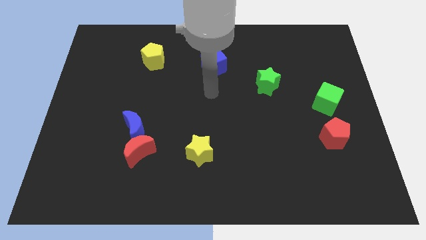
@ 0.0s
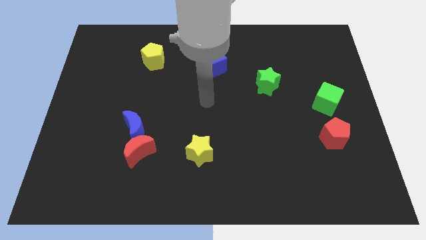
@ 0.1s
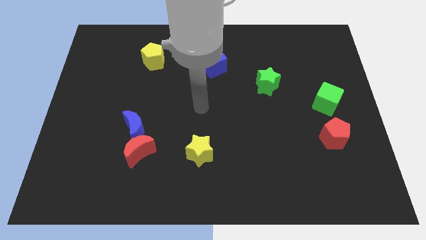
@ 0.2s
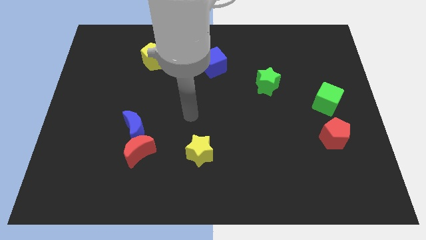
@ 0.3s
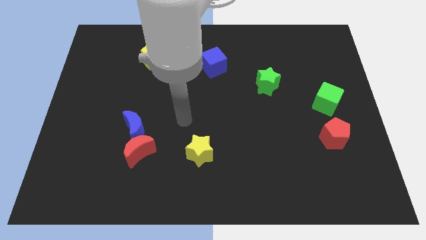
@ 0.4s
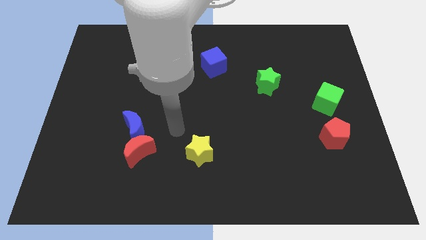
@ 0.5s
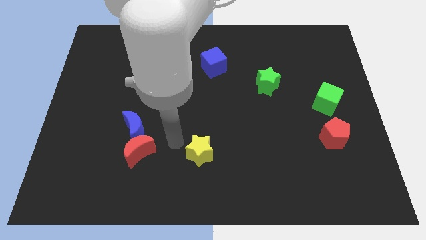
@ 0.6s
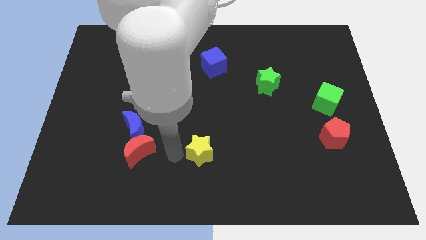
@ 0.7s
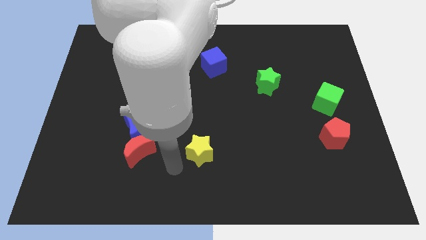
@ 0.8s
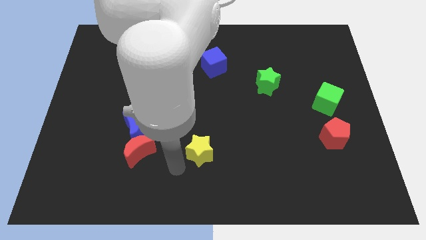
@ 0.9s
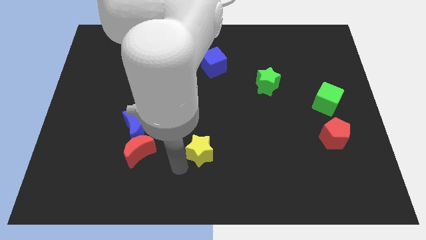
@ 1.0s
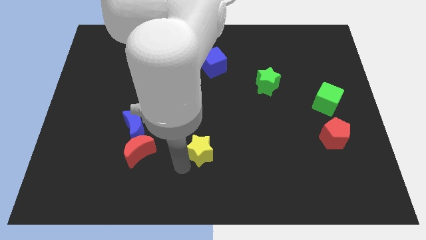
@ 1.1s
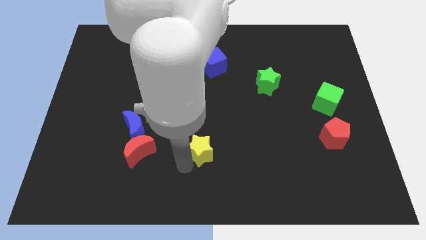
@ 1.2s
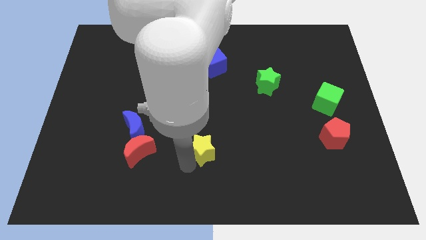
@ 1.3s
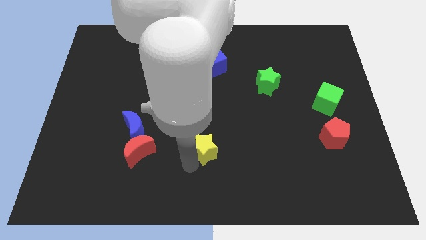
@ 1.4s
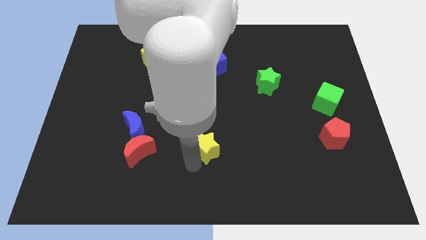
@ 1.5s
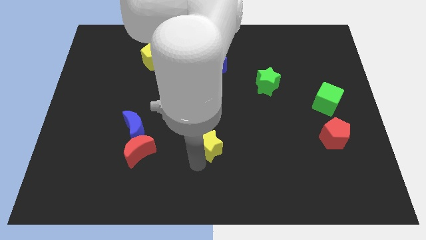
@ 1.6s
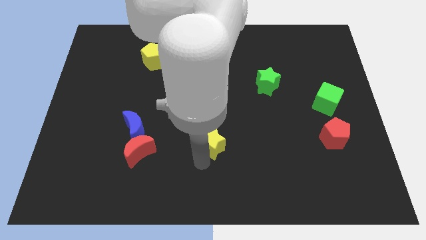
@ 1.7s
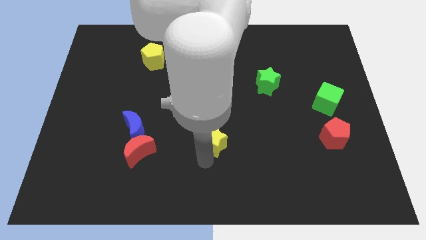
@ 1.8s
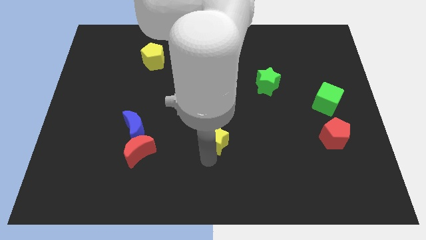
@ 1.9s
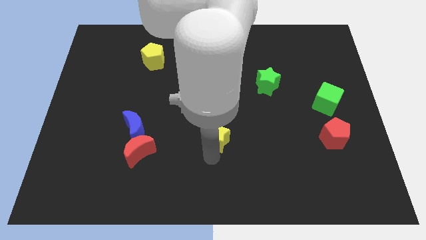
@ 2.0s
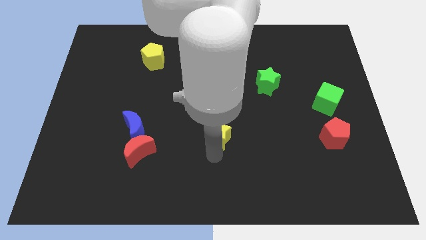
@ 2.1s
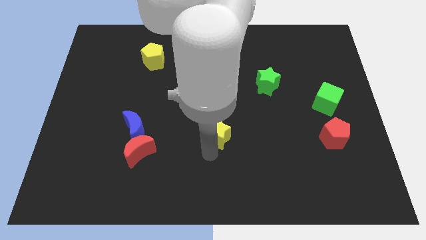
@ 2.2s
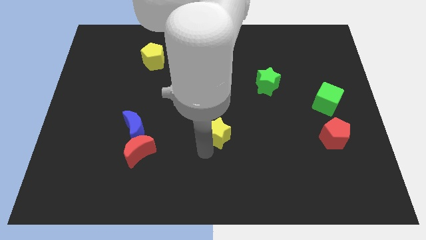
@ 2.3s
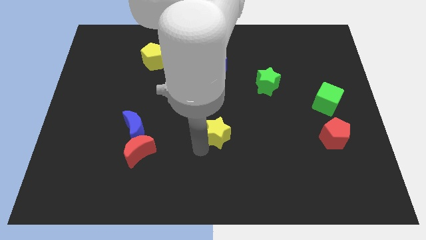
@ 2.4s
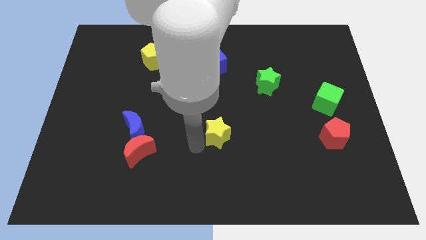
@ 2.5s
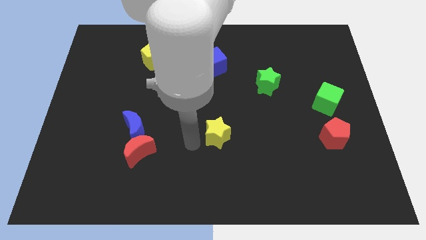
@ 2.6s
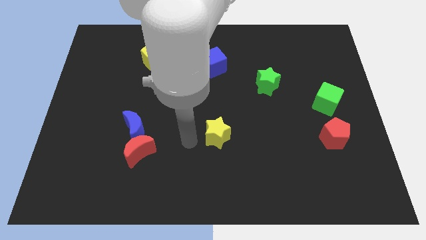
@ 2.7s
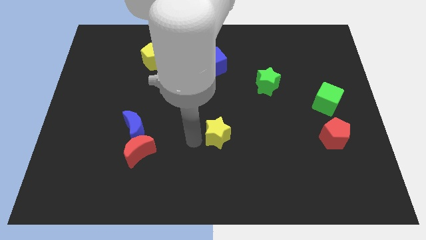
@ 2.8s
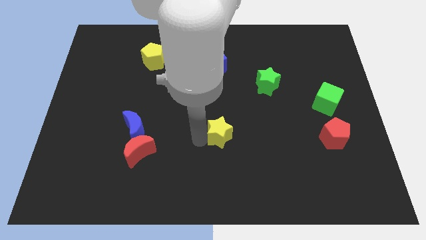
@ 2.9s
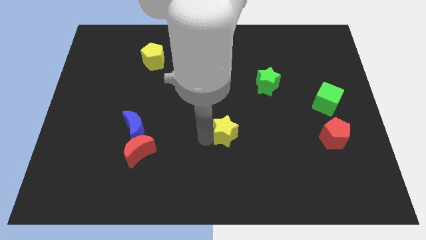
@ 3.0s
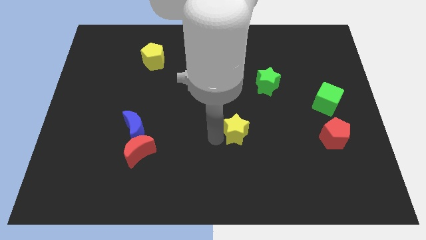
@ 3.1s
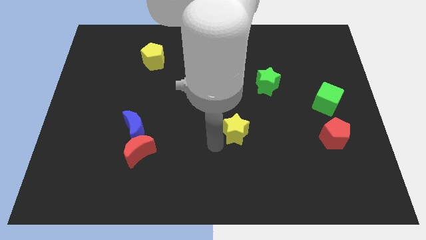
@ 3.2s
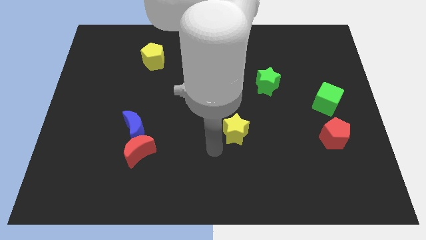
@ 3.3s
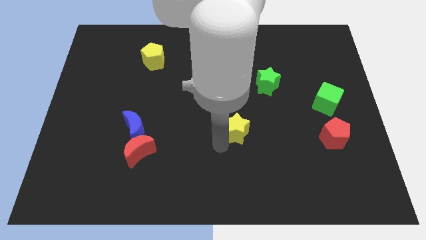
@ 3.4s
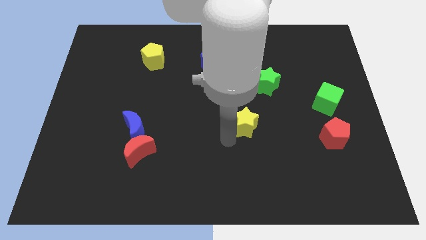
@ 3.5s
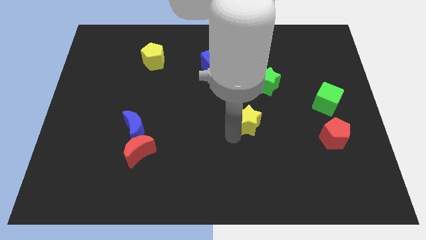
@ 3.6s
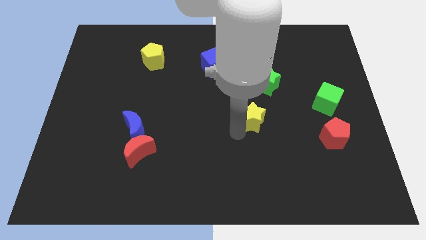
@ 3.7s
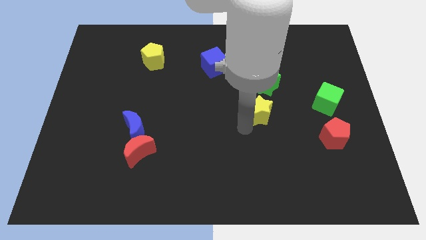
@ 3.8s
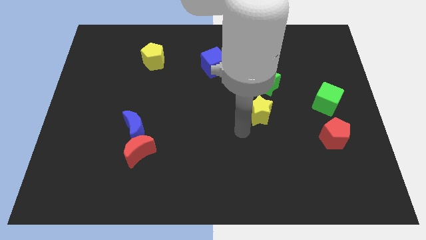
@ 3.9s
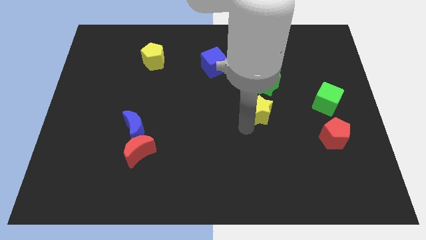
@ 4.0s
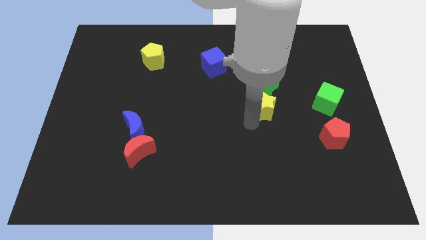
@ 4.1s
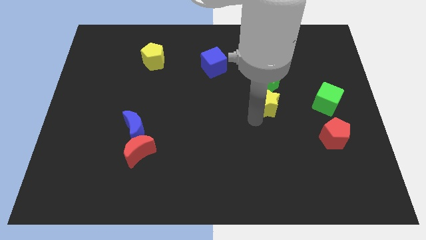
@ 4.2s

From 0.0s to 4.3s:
move the yellow star upwards and right

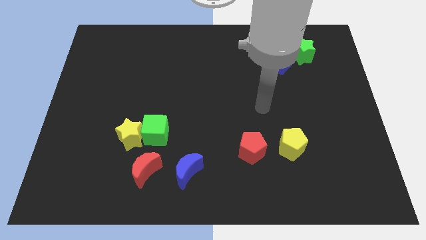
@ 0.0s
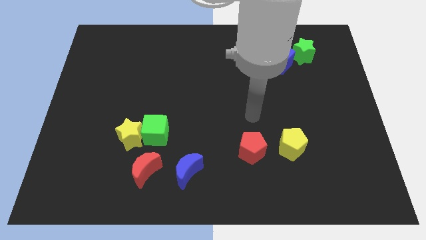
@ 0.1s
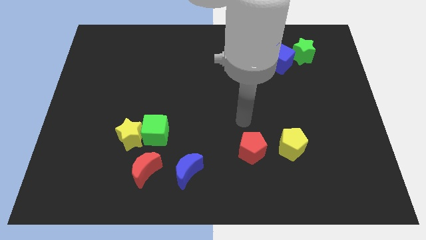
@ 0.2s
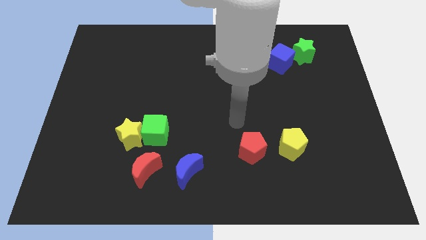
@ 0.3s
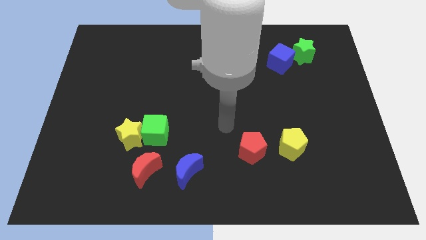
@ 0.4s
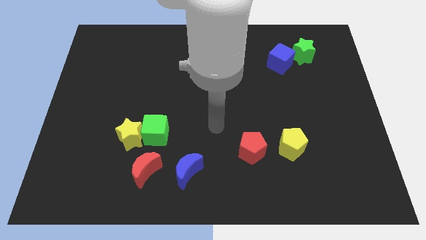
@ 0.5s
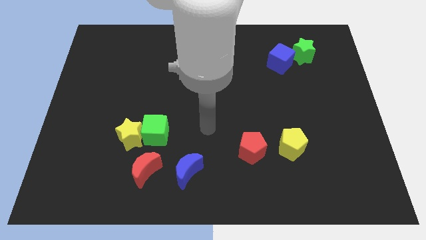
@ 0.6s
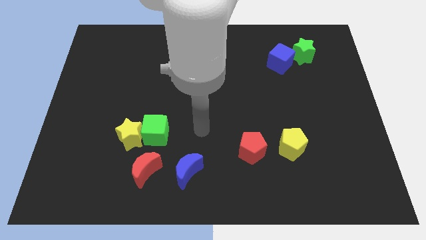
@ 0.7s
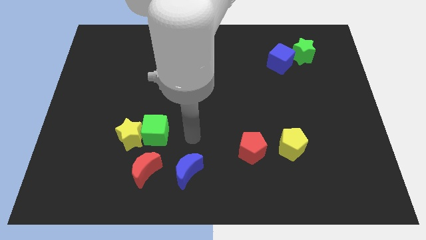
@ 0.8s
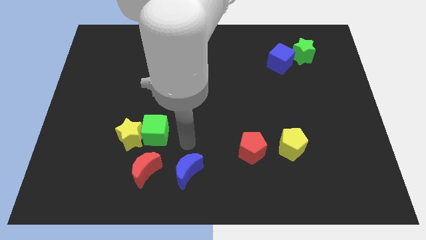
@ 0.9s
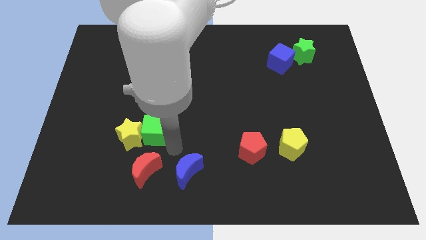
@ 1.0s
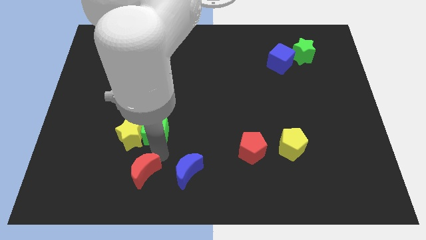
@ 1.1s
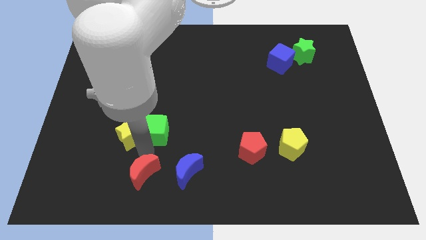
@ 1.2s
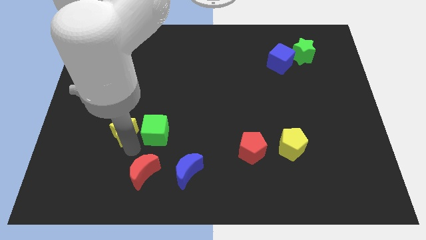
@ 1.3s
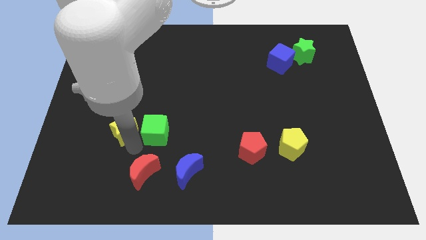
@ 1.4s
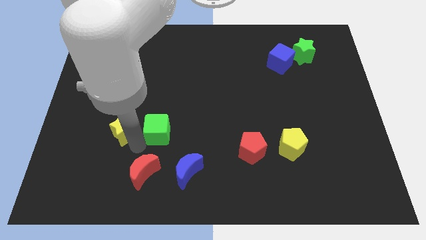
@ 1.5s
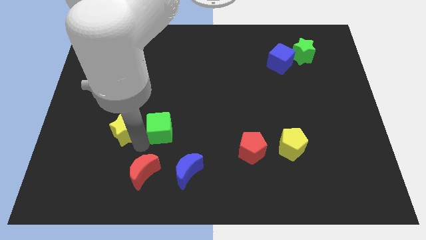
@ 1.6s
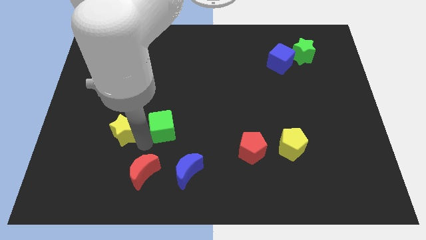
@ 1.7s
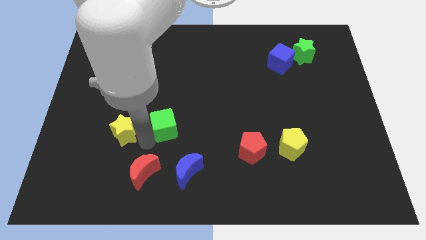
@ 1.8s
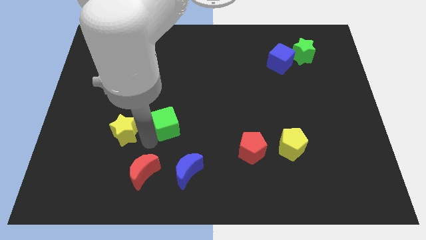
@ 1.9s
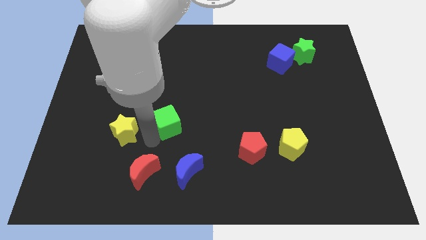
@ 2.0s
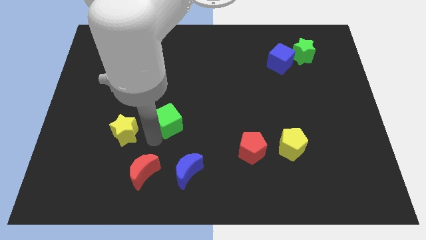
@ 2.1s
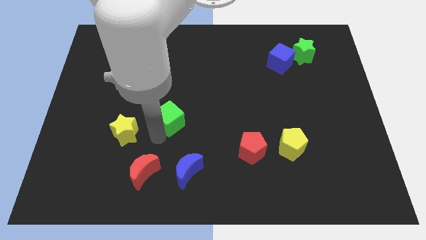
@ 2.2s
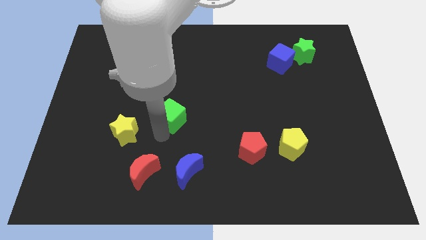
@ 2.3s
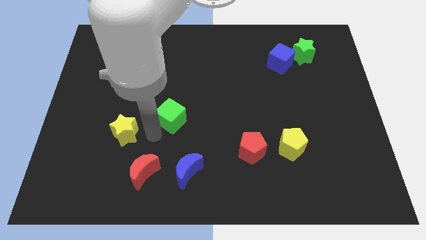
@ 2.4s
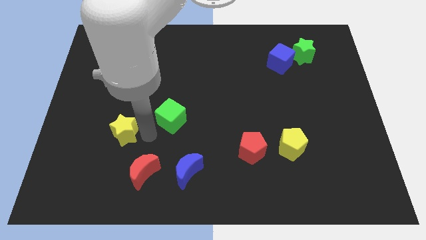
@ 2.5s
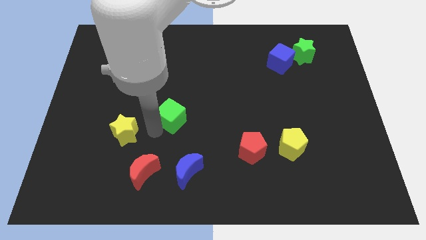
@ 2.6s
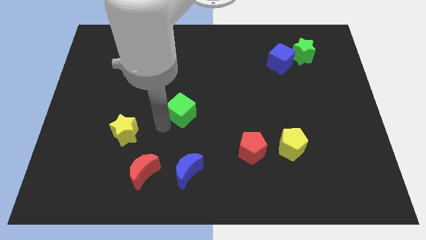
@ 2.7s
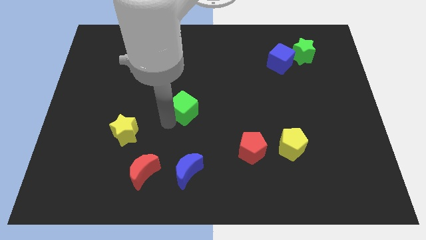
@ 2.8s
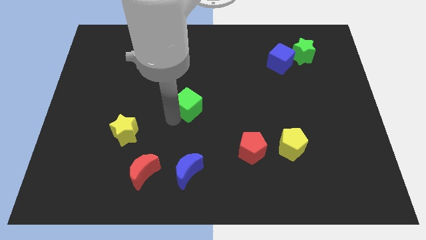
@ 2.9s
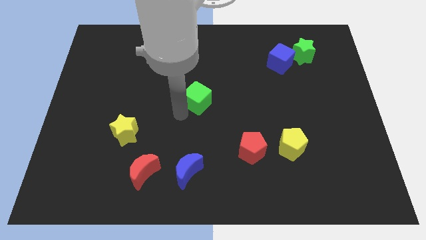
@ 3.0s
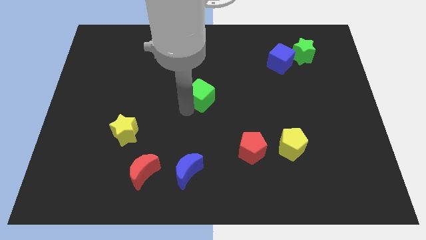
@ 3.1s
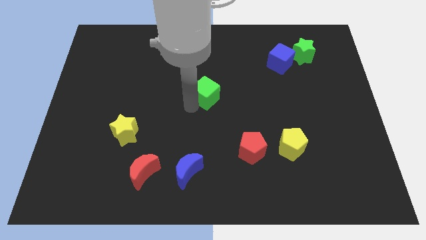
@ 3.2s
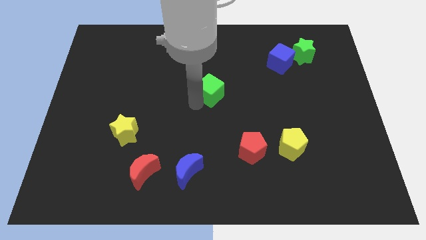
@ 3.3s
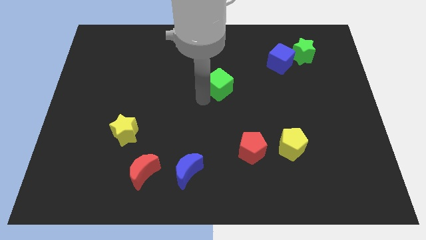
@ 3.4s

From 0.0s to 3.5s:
slide the green cube upwards and then to the right

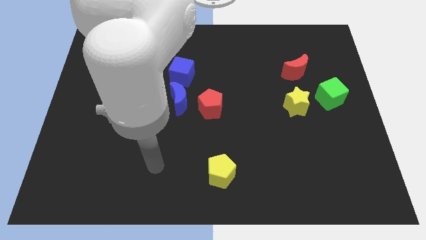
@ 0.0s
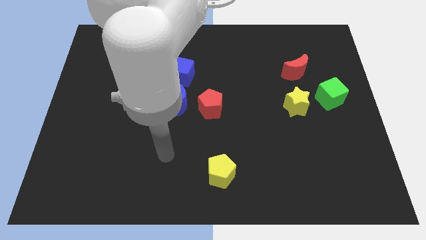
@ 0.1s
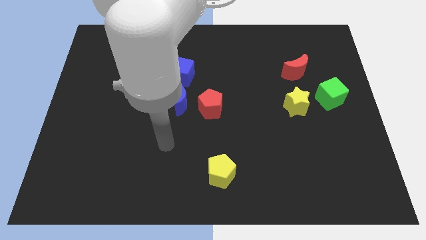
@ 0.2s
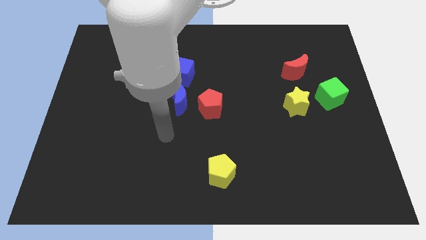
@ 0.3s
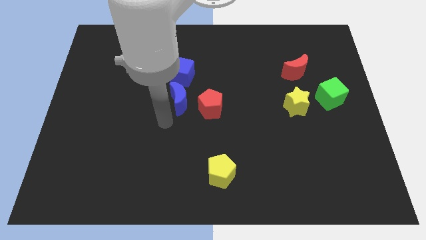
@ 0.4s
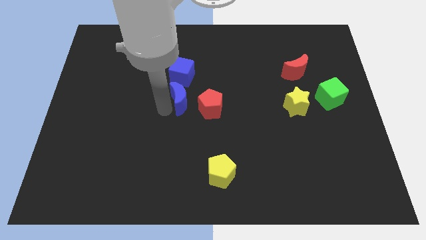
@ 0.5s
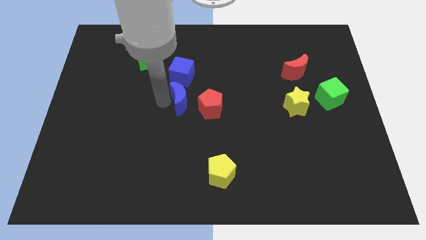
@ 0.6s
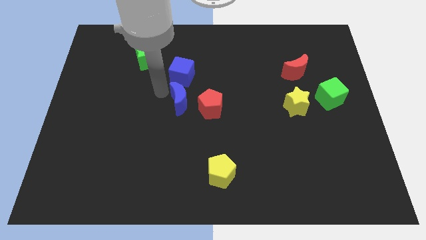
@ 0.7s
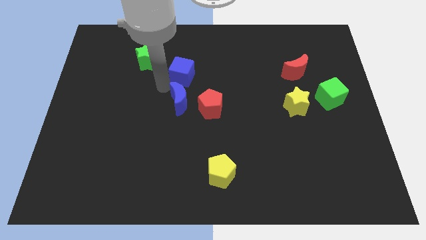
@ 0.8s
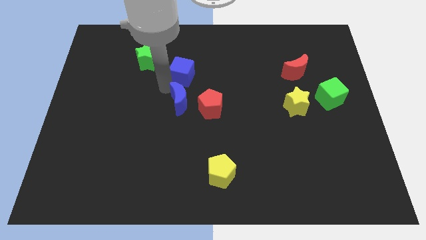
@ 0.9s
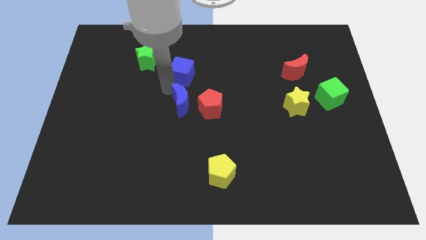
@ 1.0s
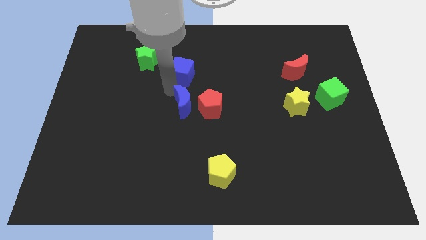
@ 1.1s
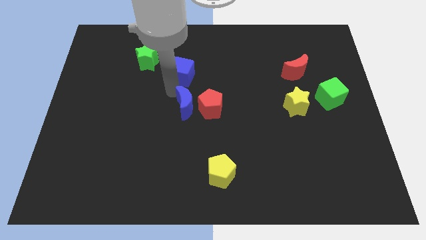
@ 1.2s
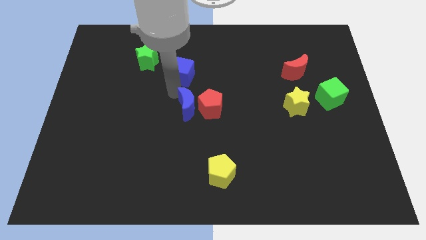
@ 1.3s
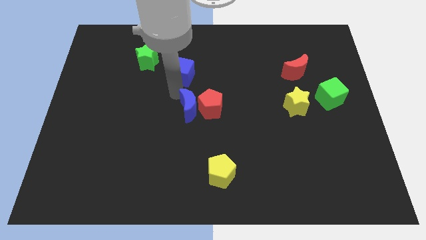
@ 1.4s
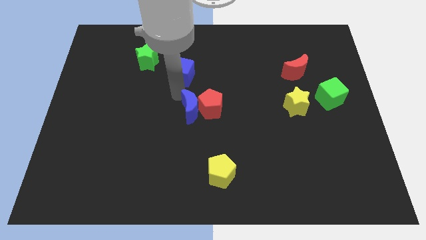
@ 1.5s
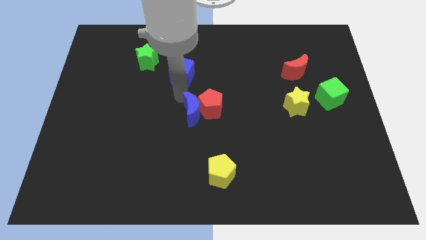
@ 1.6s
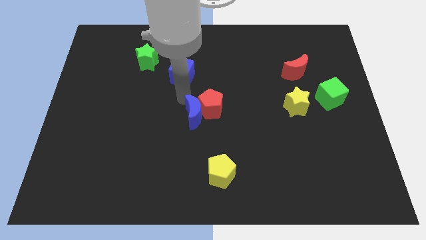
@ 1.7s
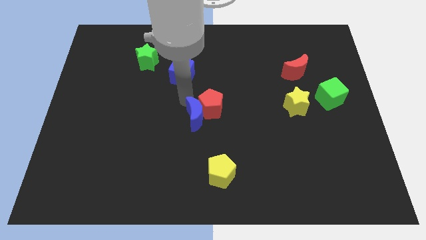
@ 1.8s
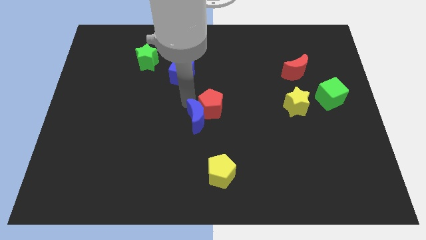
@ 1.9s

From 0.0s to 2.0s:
slightly push the blue moon down and right diagonally
